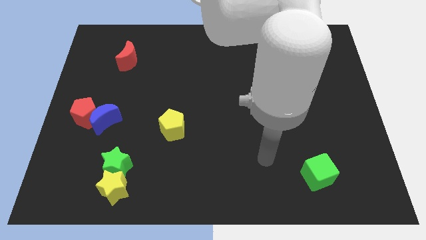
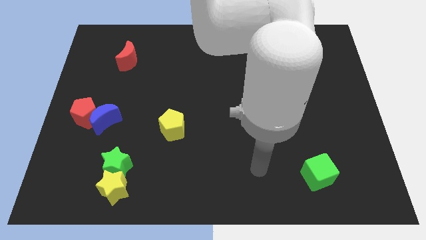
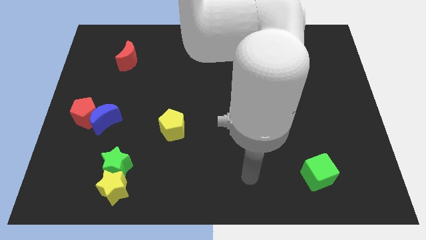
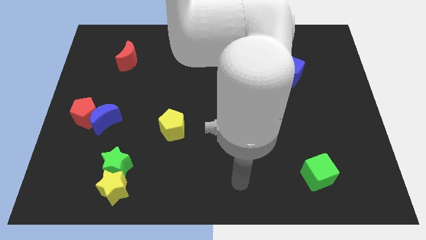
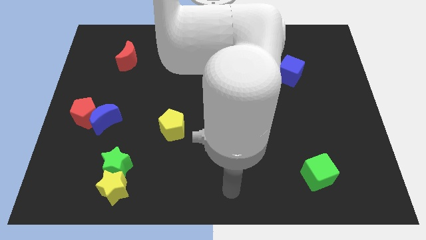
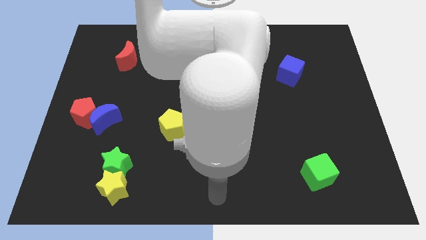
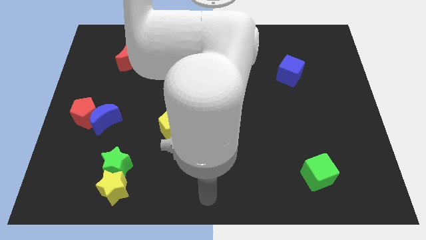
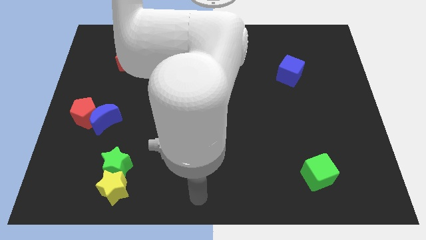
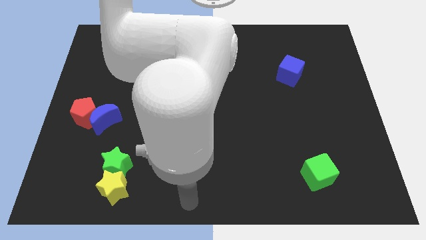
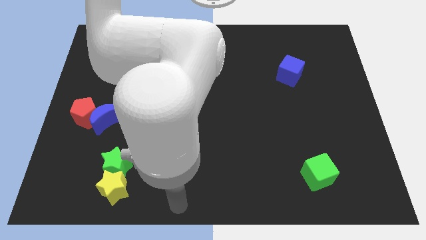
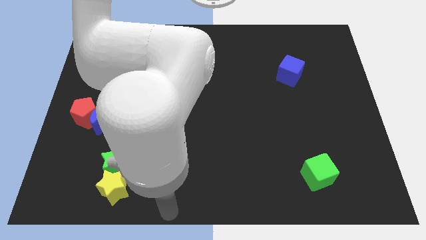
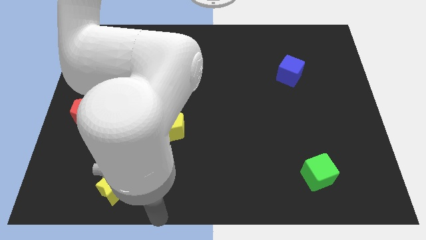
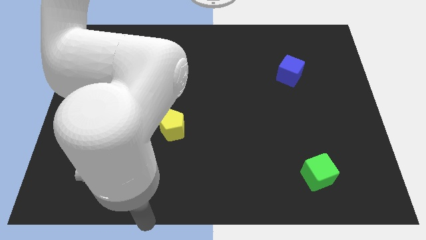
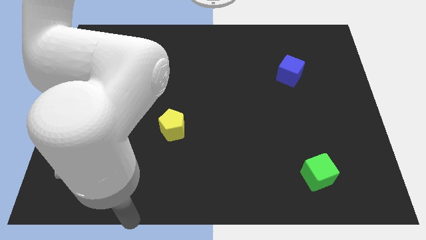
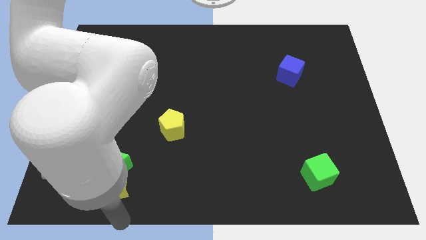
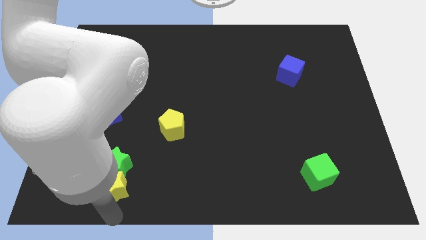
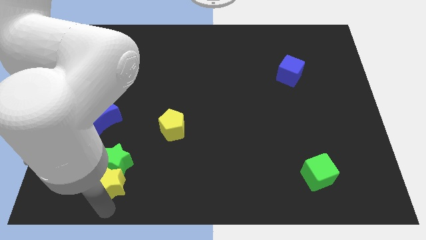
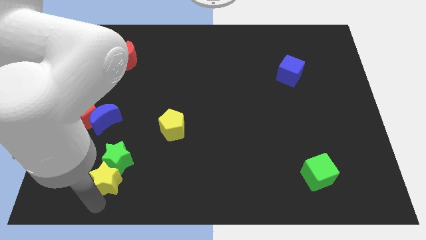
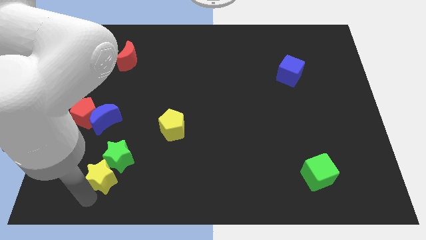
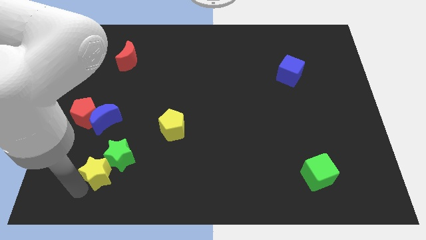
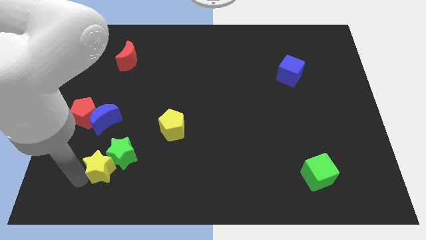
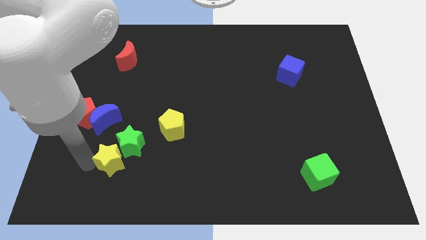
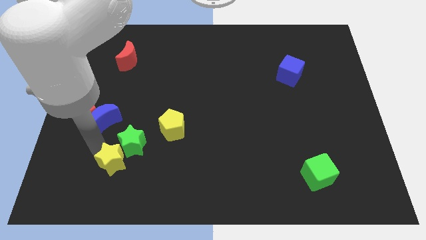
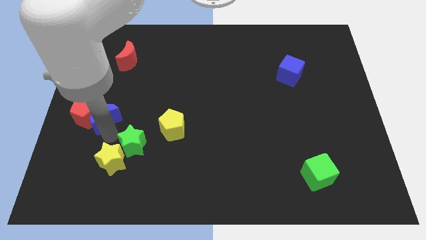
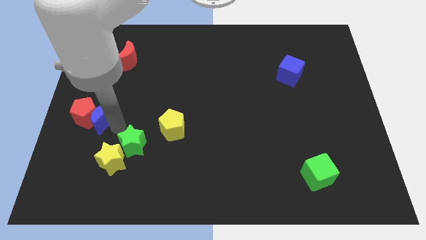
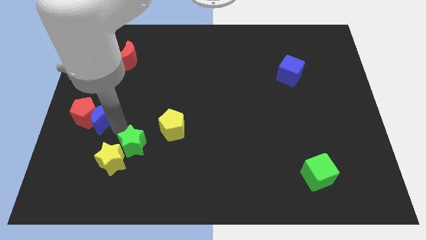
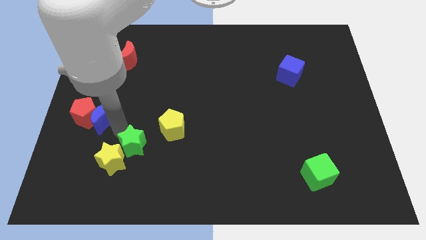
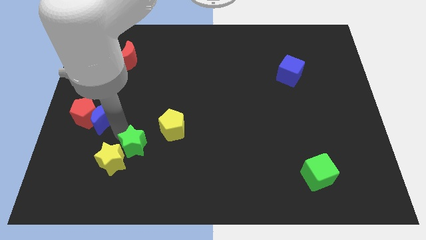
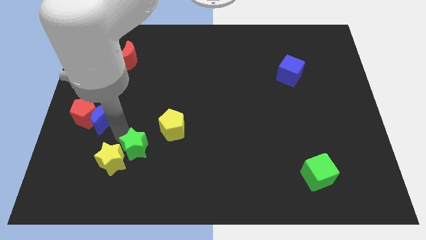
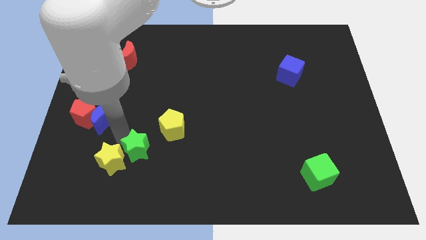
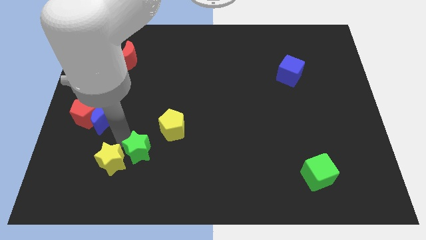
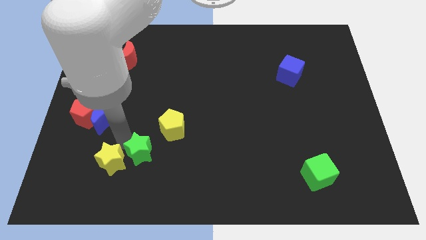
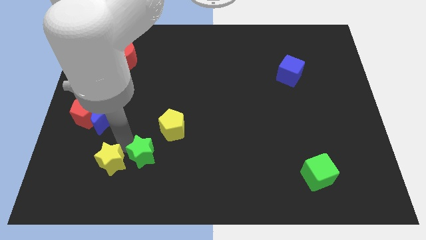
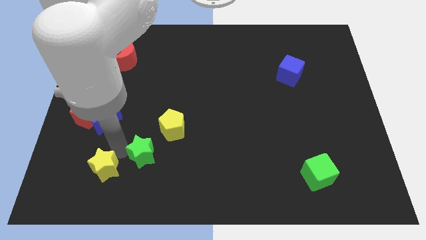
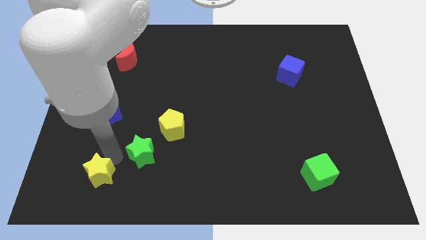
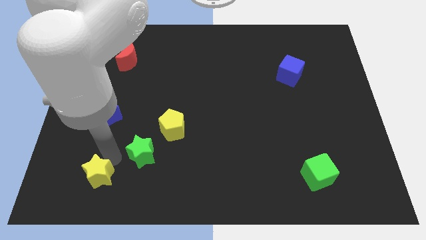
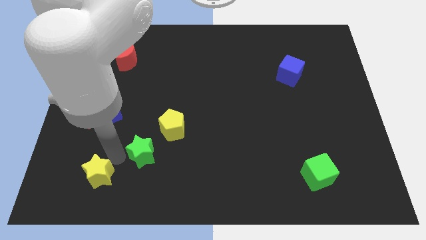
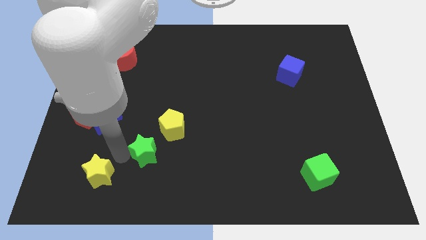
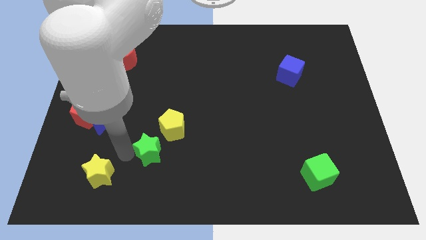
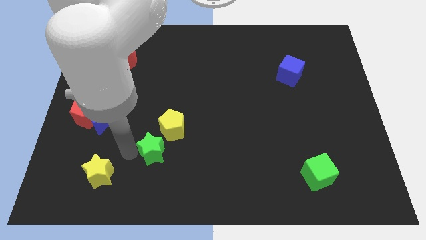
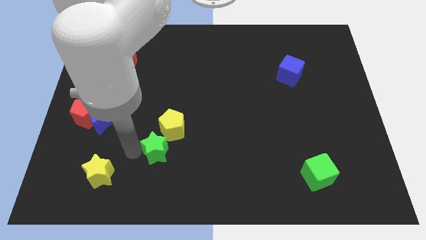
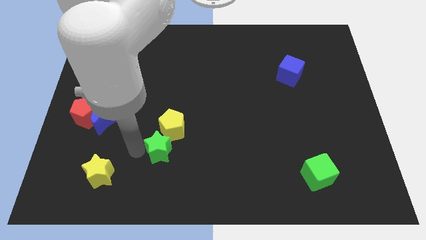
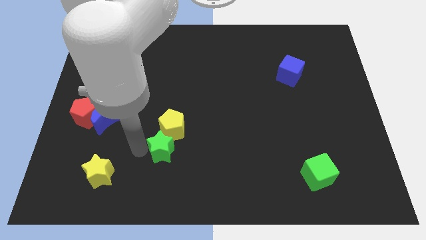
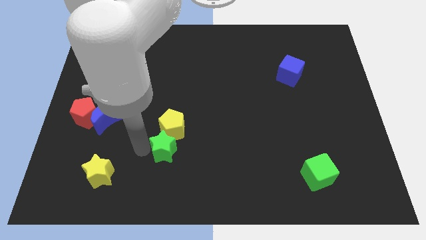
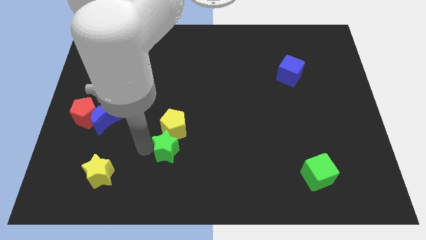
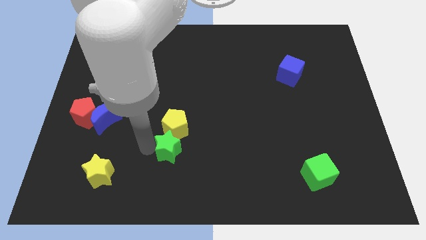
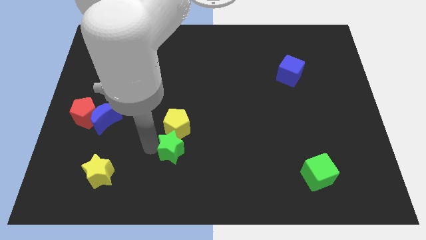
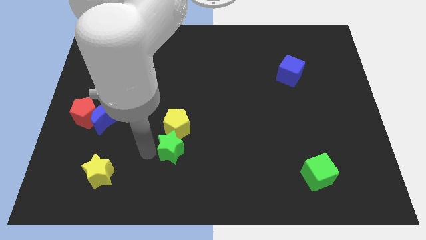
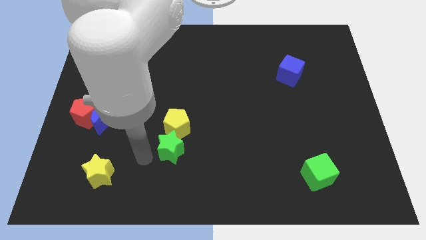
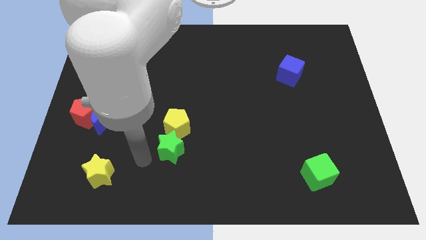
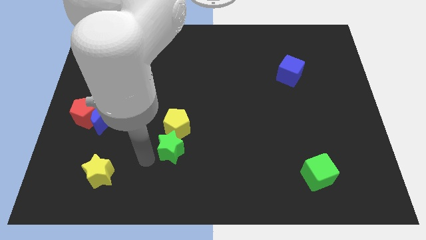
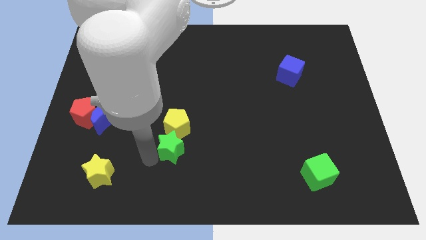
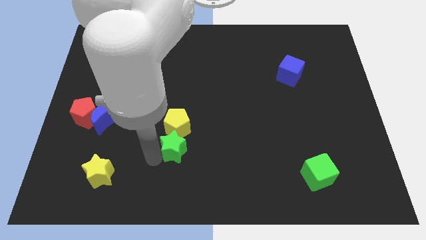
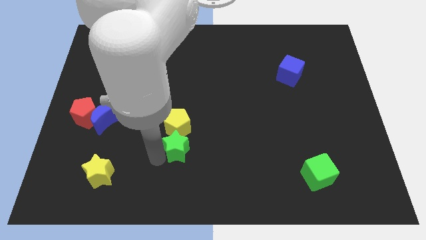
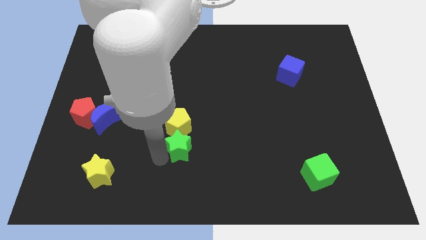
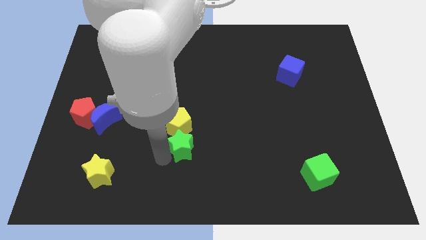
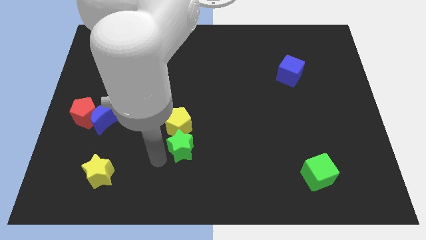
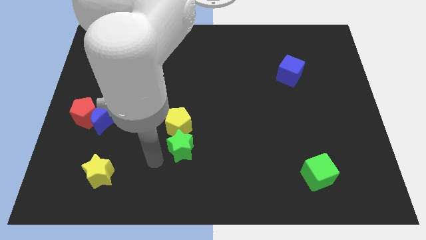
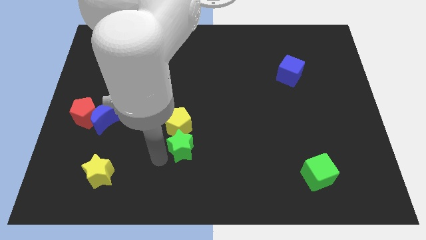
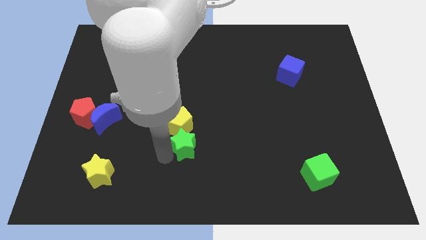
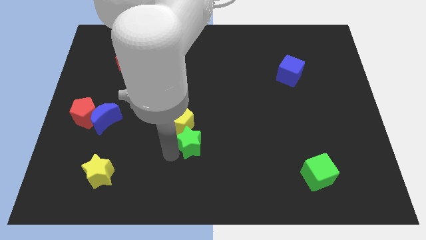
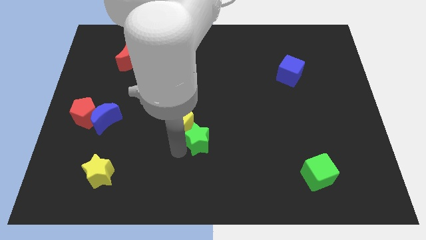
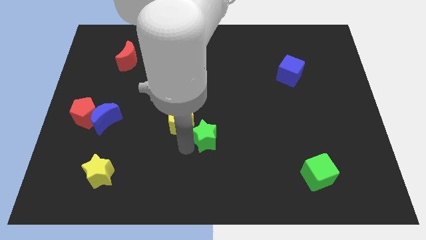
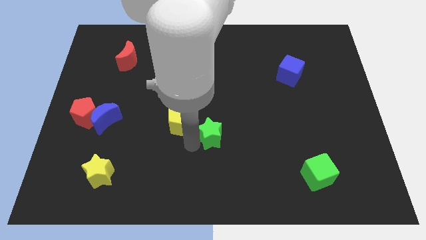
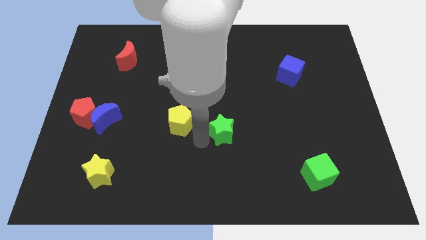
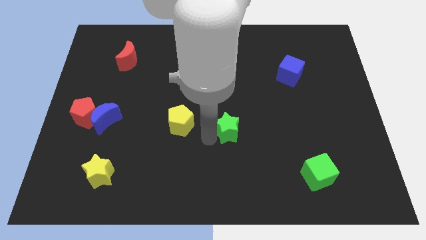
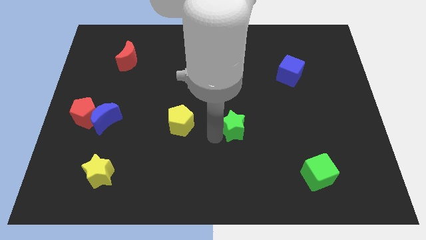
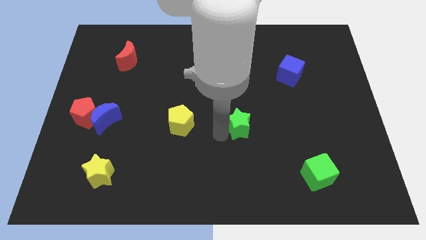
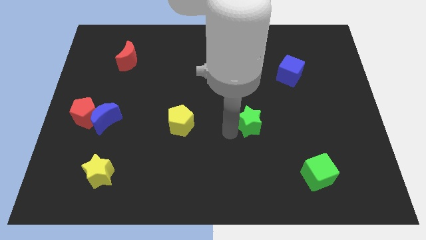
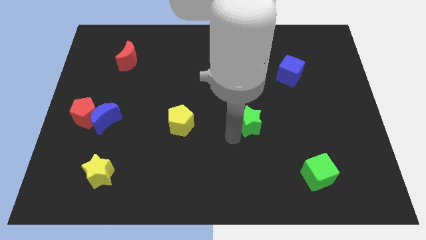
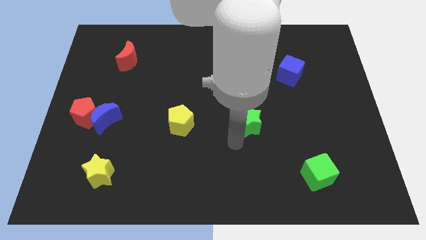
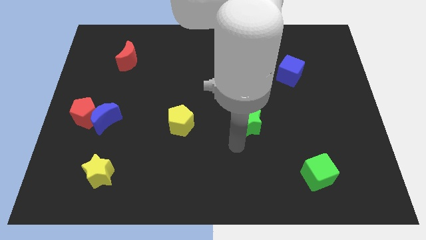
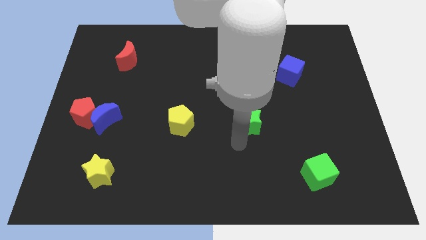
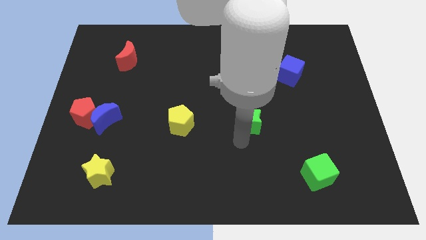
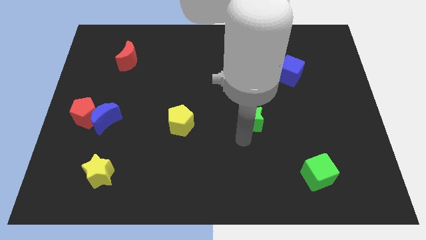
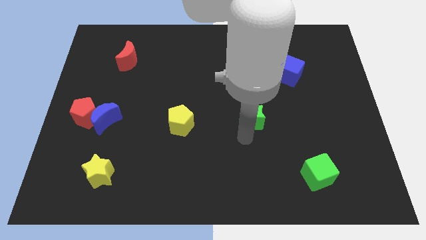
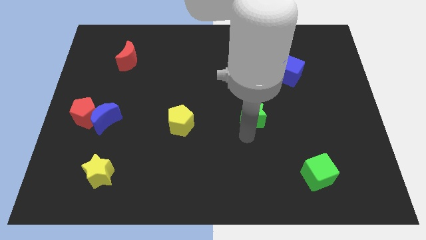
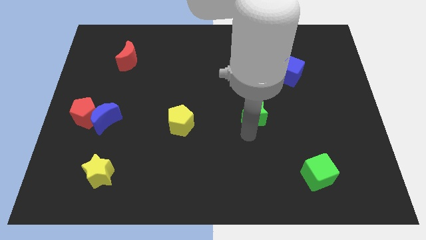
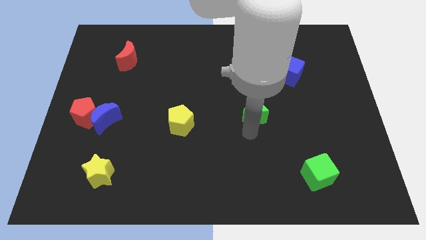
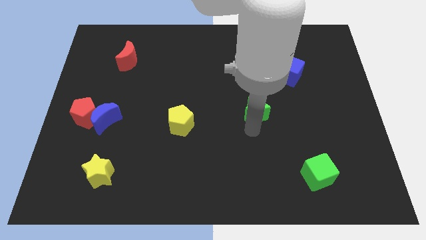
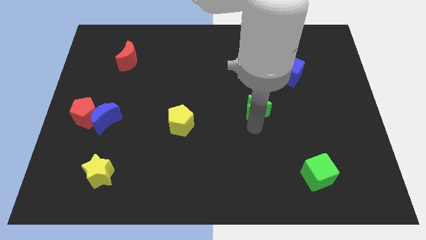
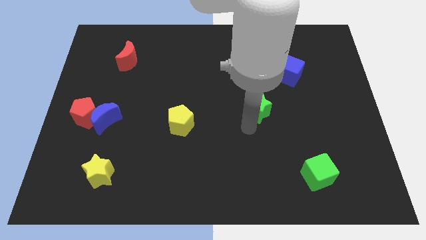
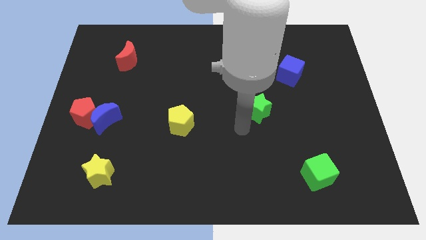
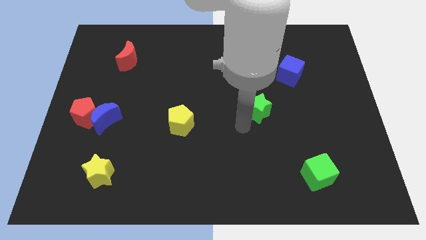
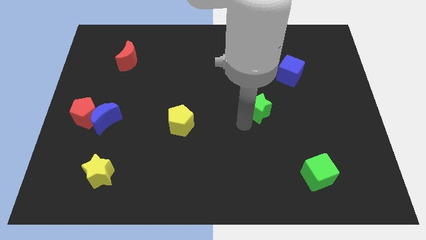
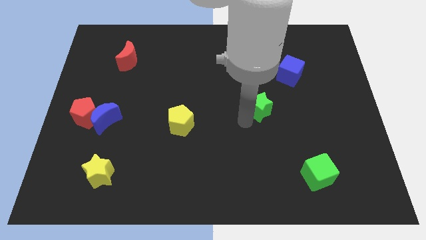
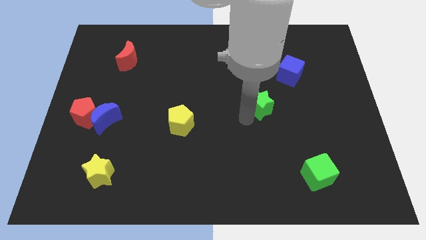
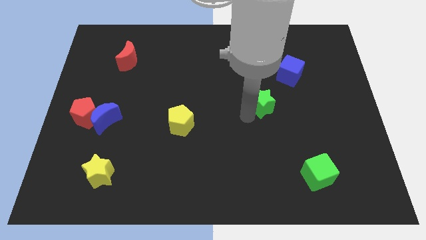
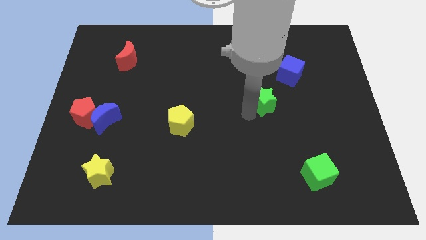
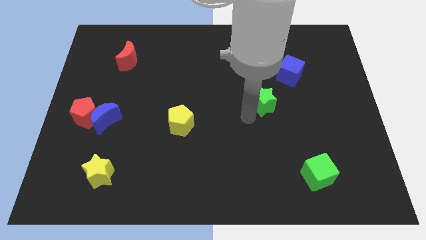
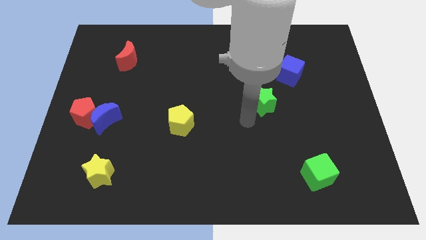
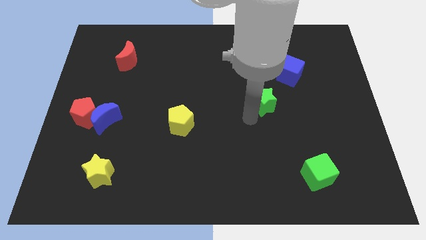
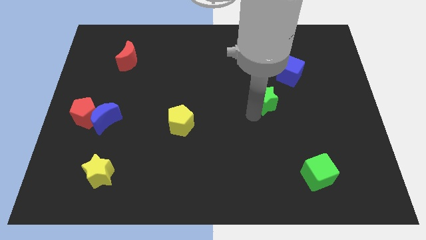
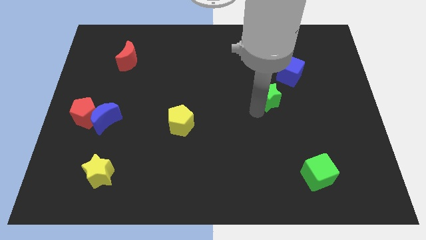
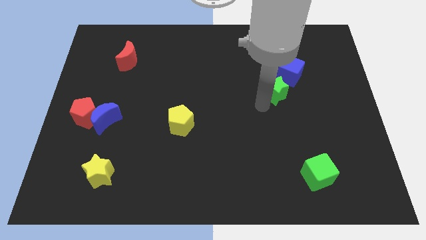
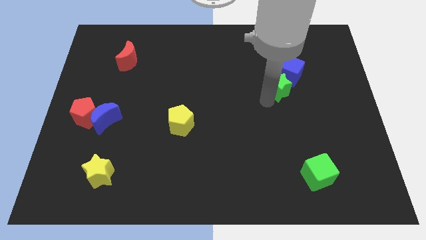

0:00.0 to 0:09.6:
push the green star towards the blue cube
